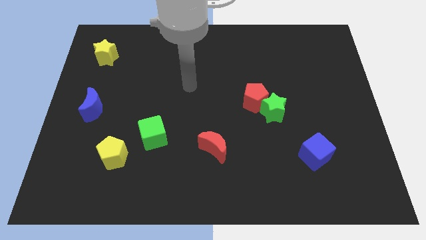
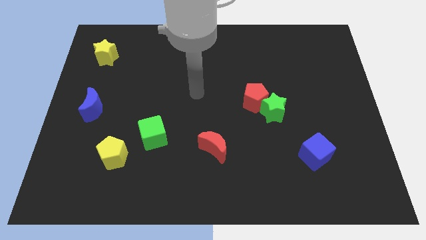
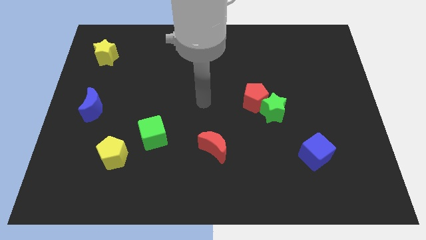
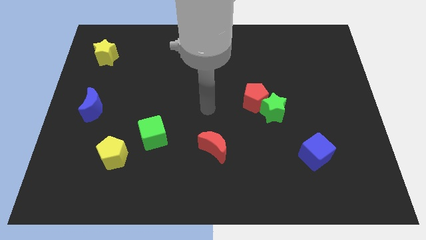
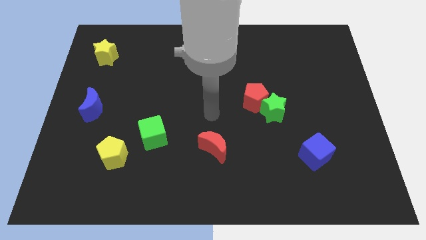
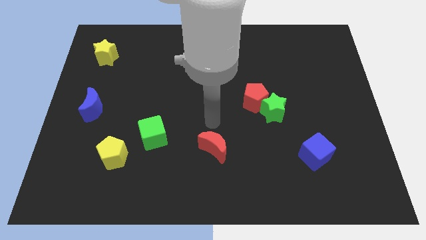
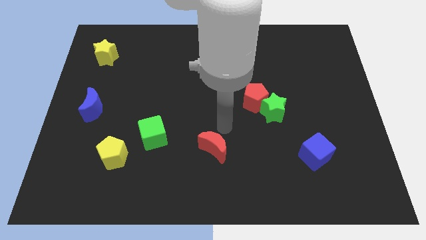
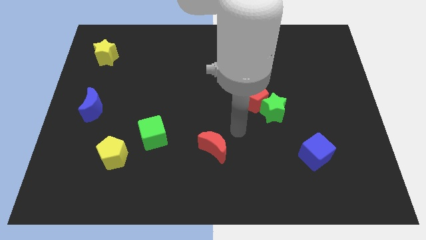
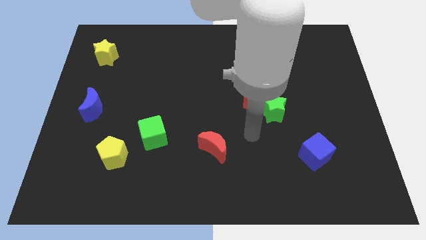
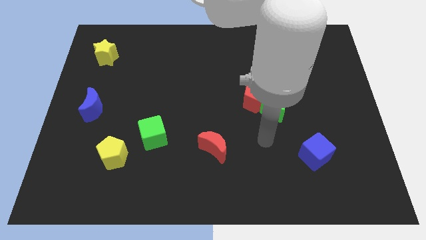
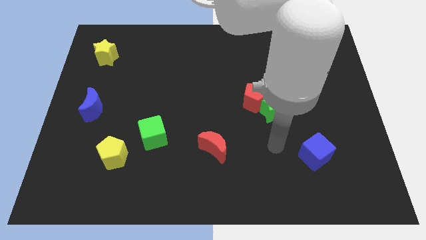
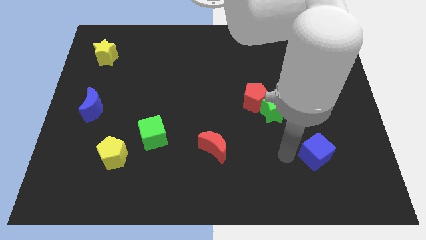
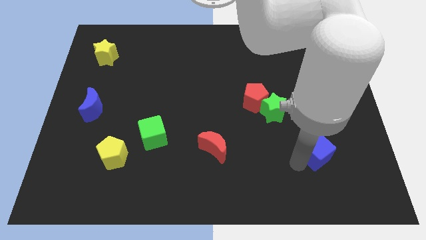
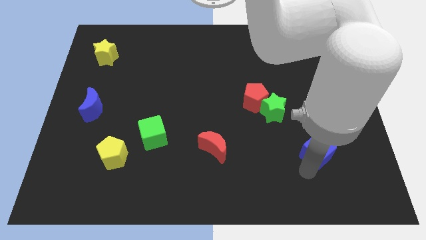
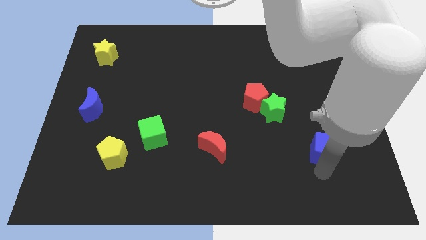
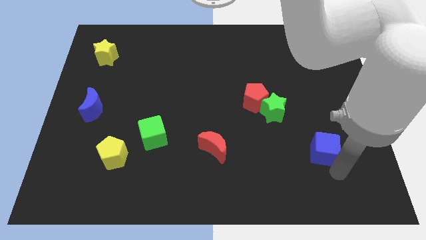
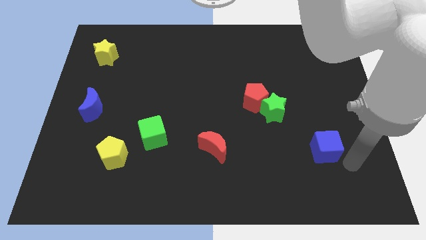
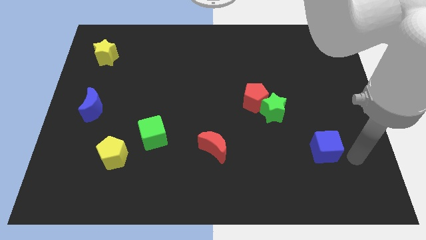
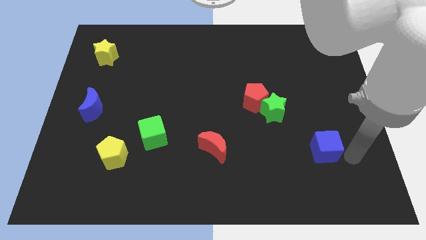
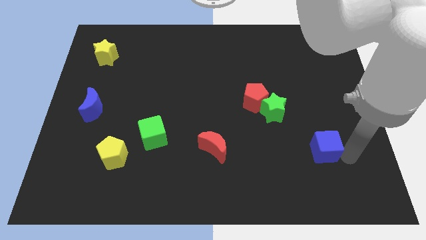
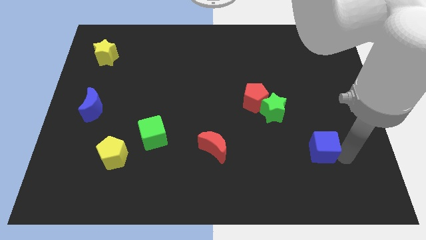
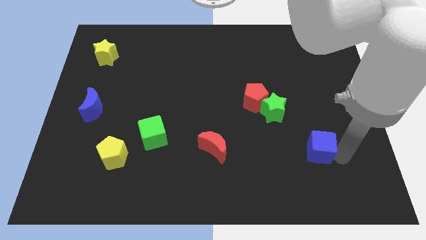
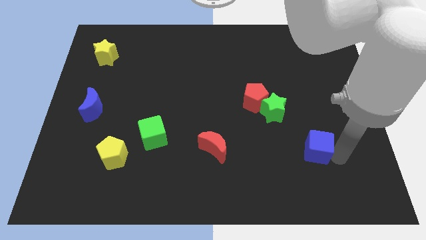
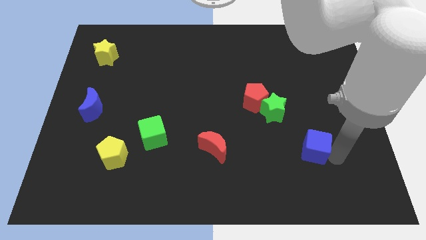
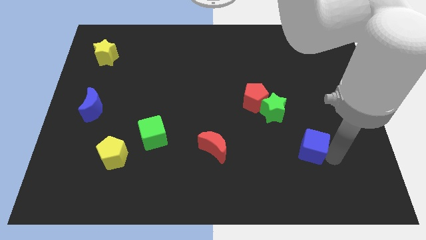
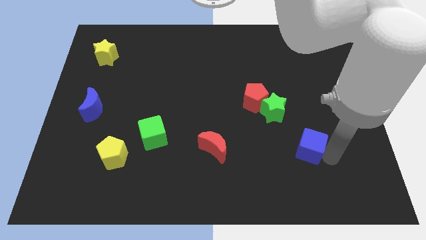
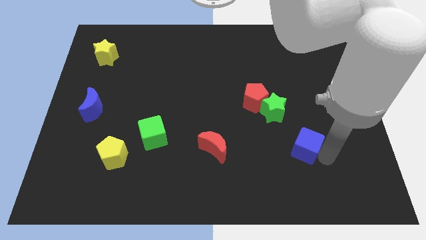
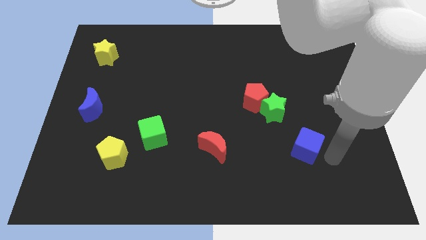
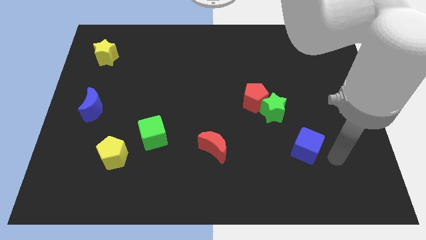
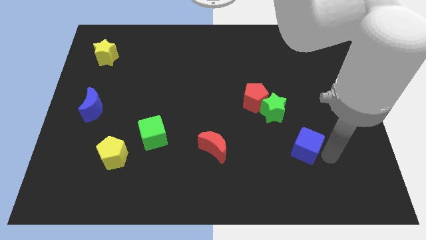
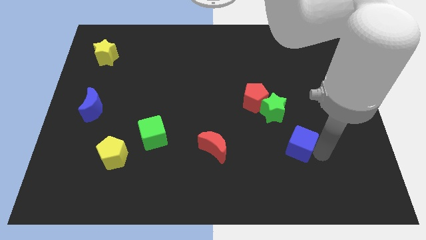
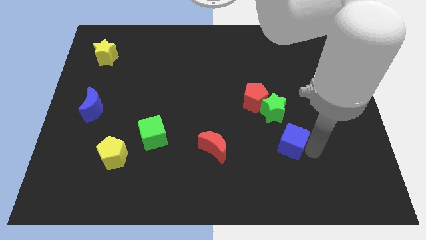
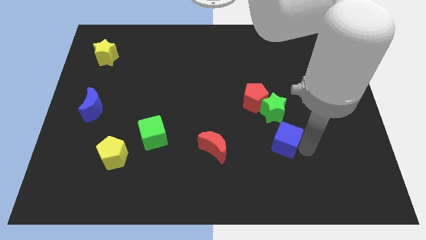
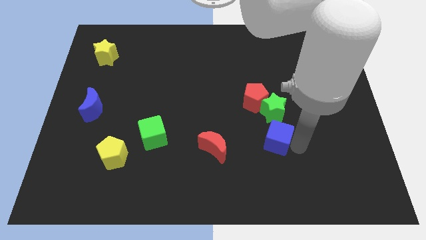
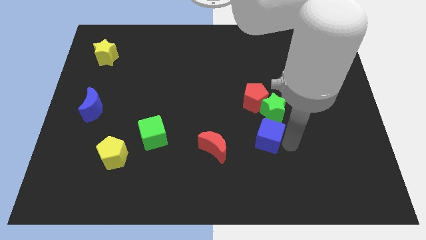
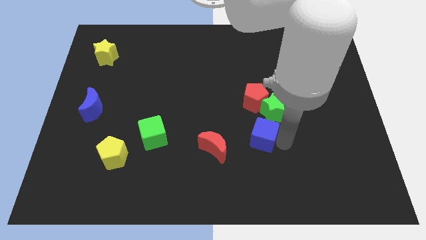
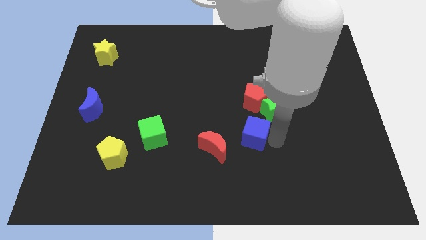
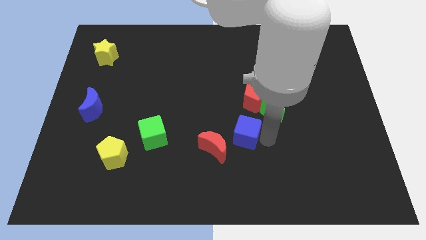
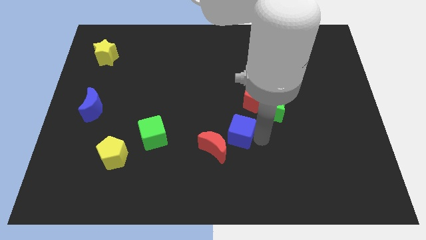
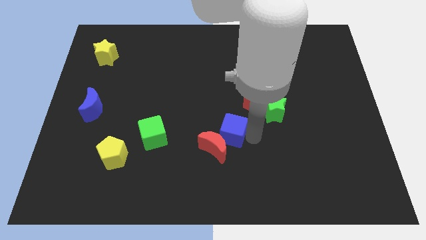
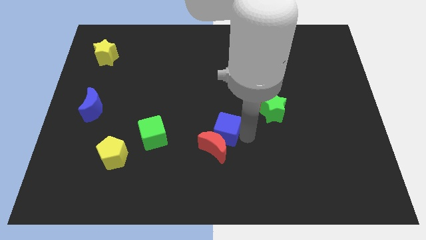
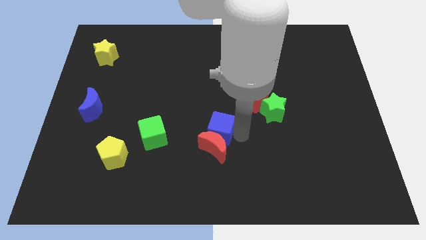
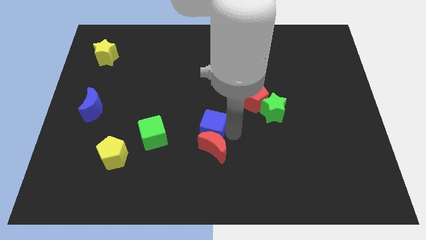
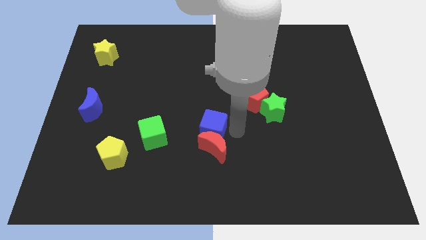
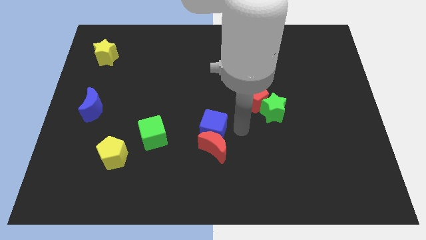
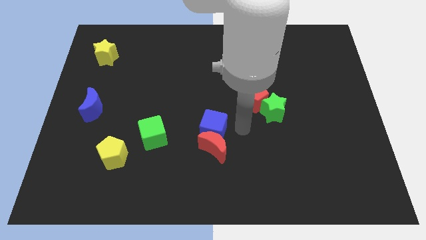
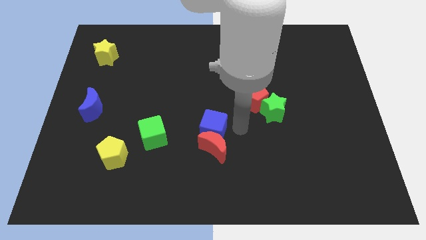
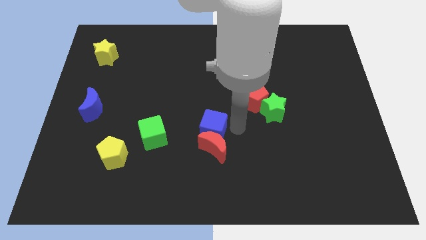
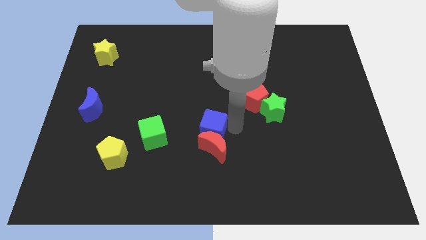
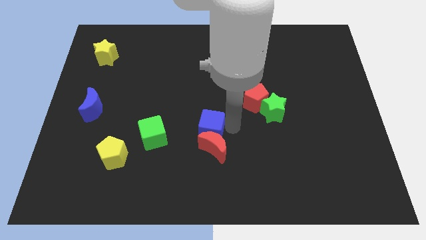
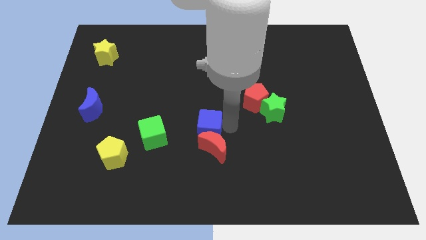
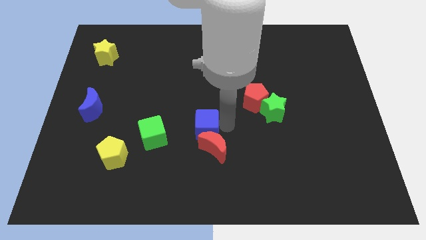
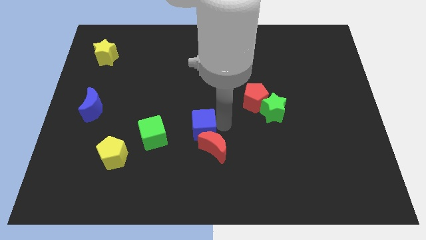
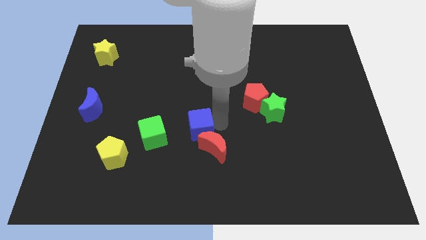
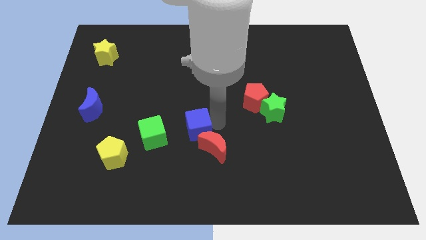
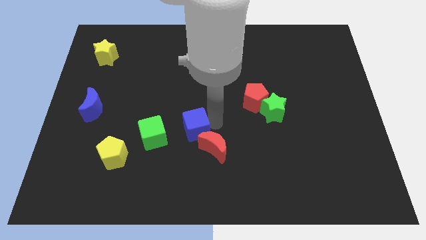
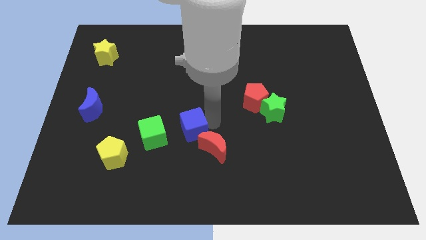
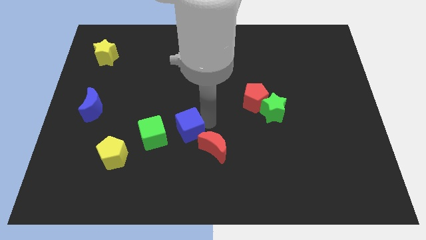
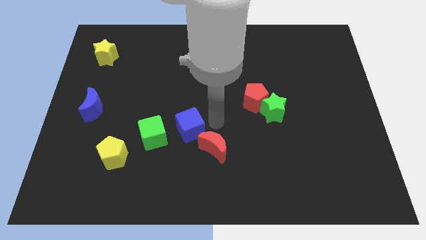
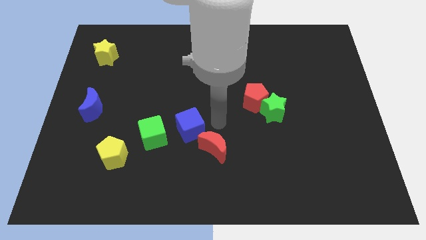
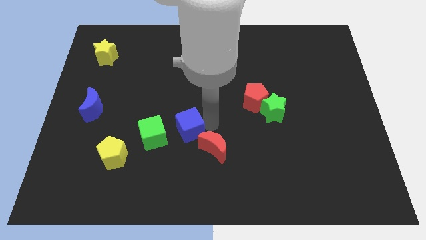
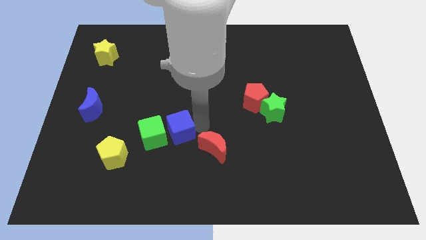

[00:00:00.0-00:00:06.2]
slide the blue cube towards the green cube

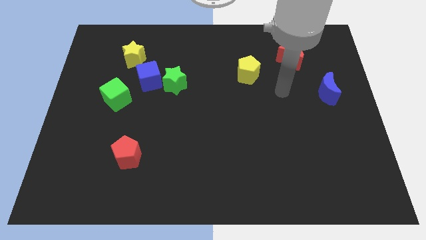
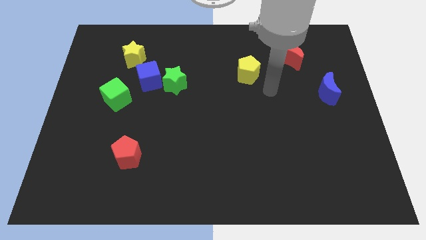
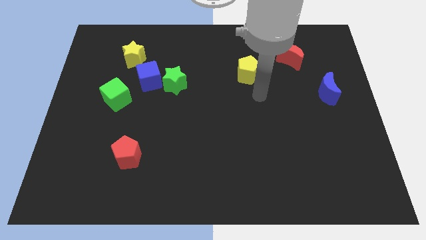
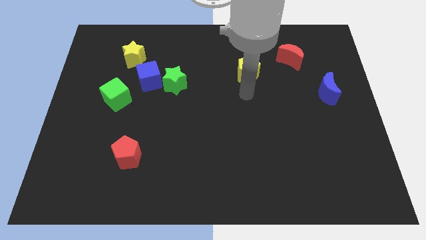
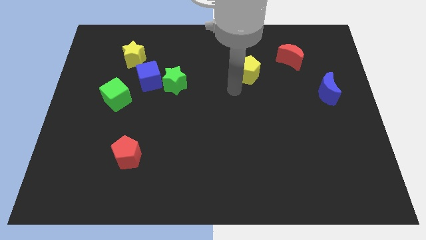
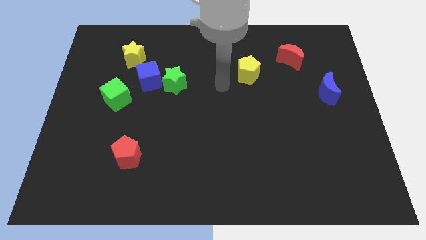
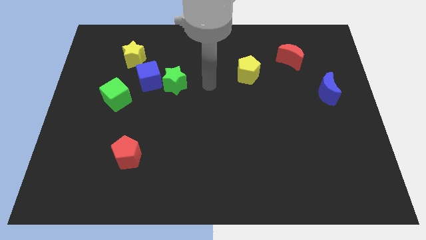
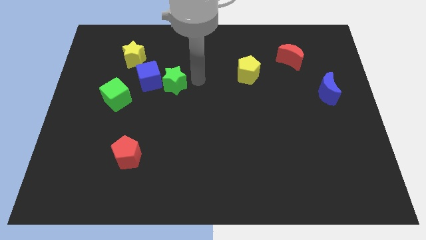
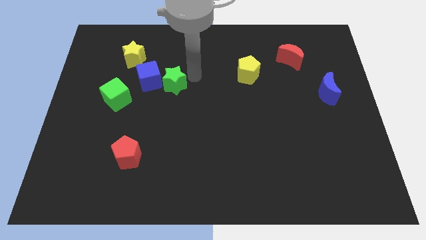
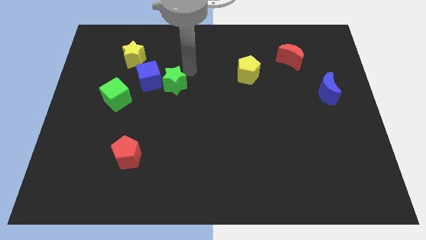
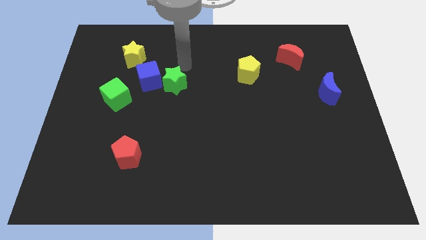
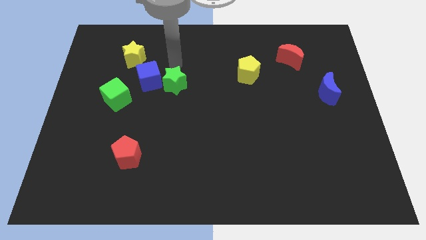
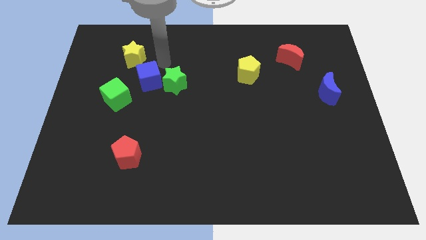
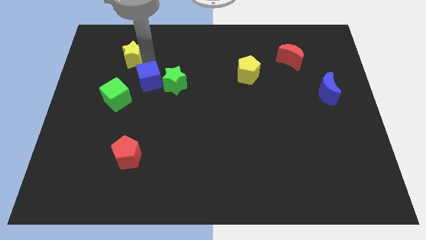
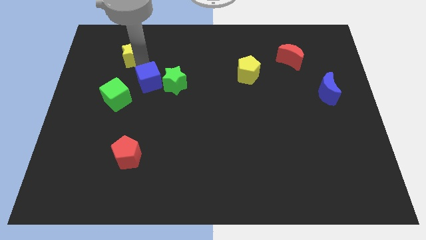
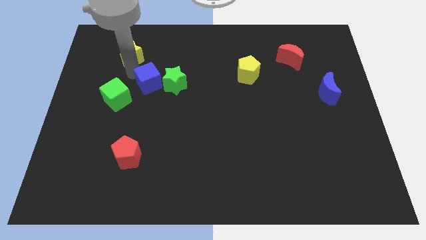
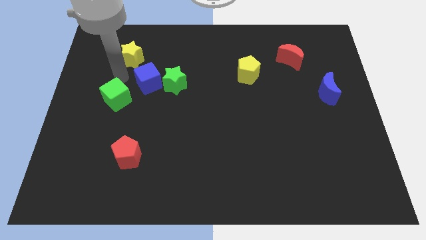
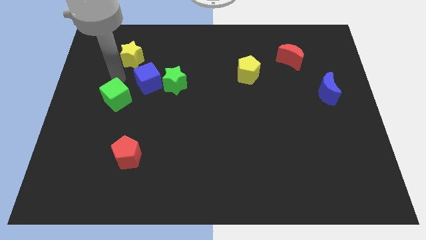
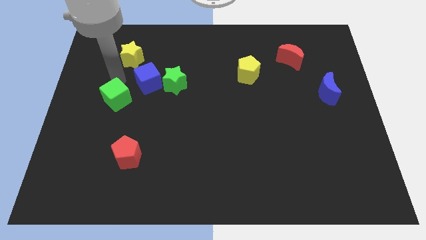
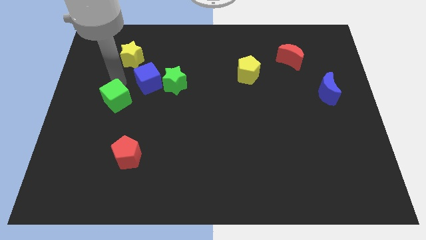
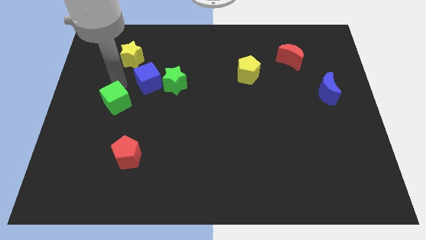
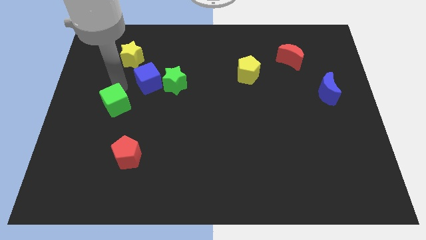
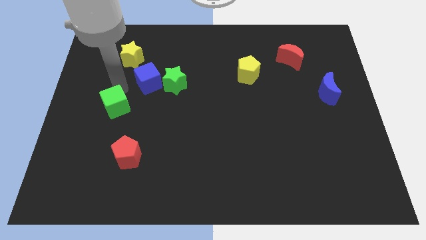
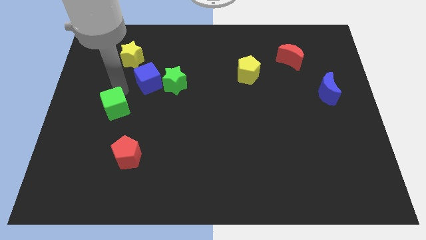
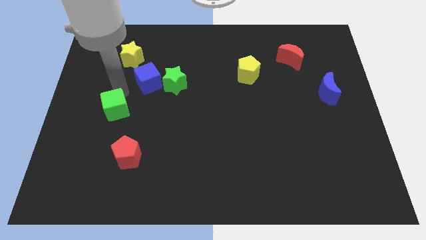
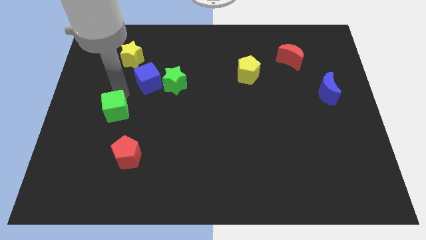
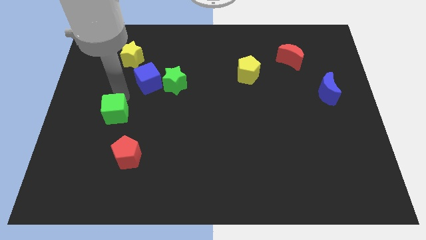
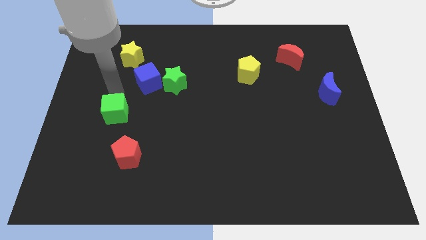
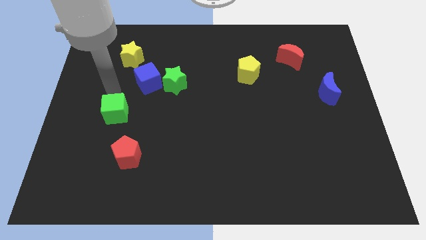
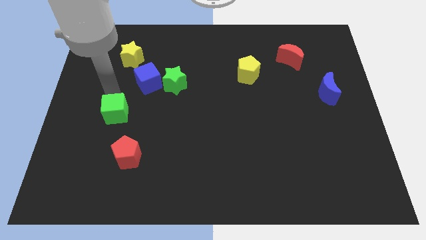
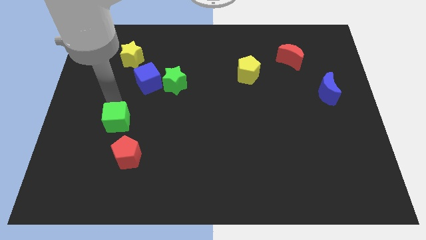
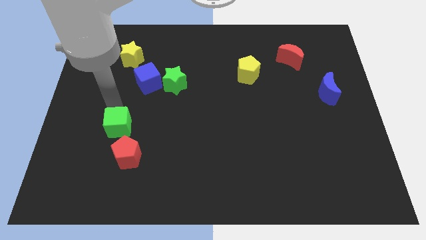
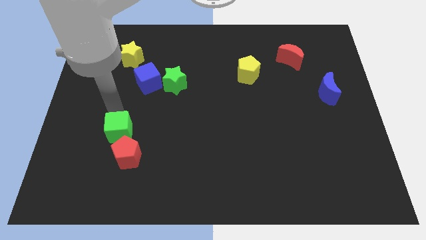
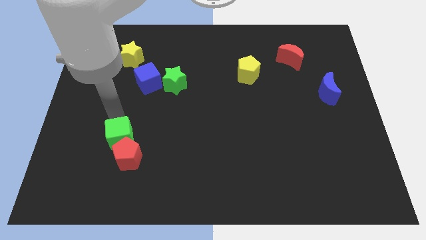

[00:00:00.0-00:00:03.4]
put the green cube to the red pentagon
